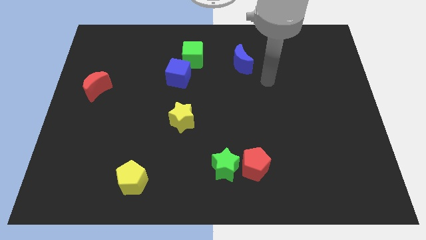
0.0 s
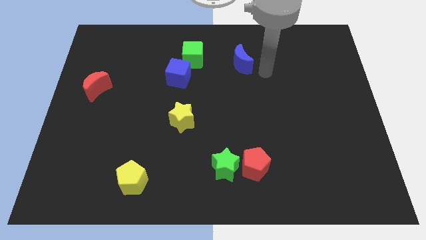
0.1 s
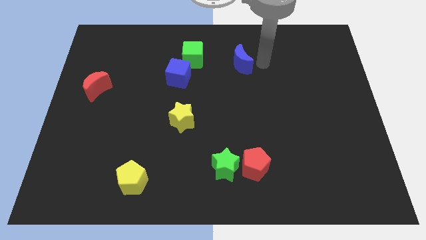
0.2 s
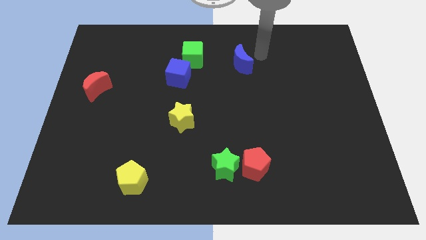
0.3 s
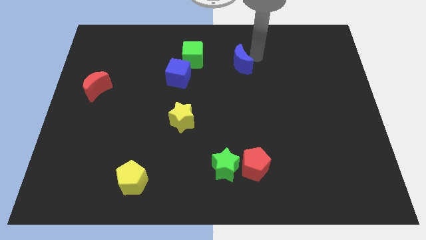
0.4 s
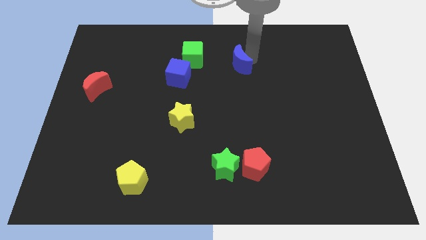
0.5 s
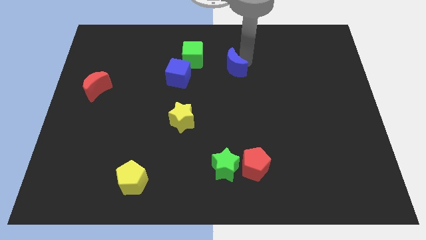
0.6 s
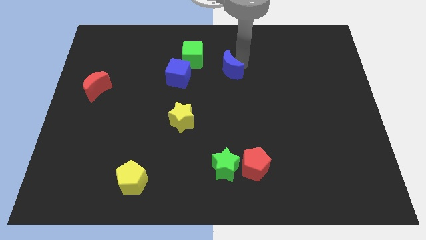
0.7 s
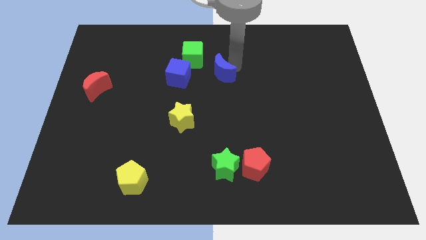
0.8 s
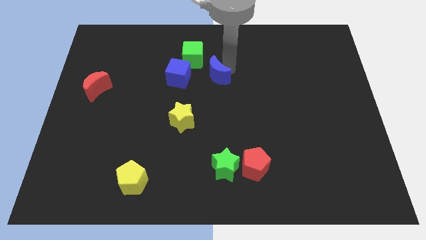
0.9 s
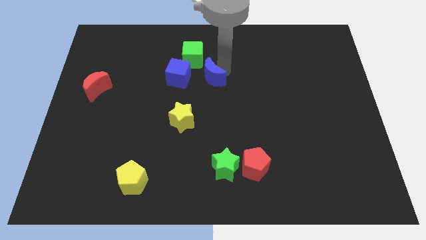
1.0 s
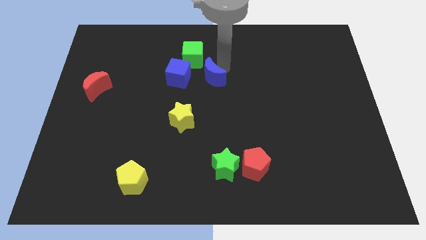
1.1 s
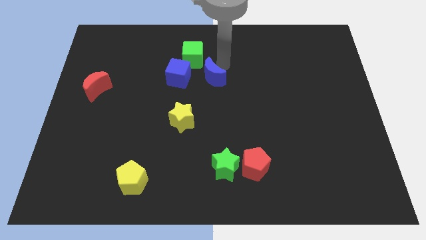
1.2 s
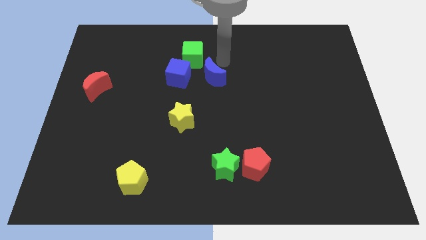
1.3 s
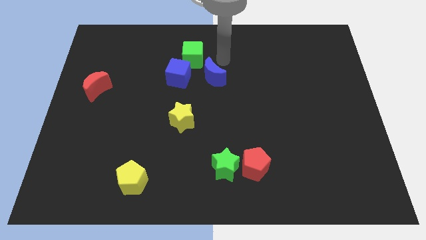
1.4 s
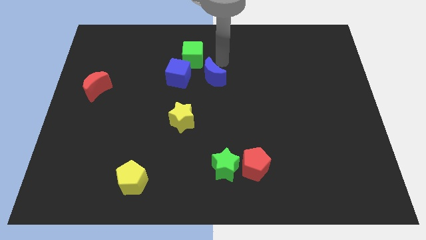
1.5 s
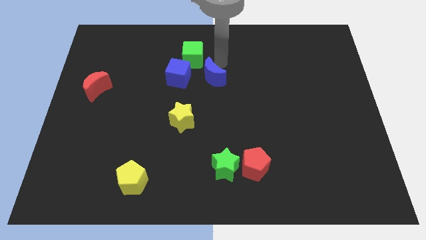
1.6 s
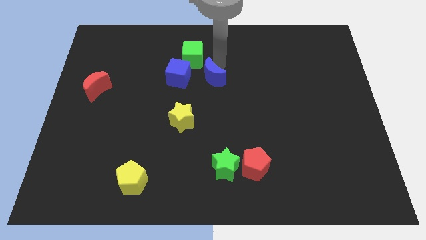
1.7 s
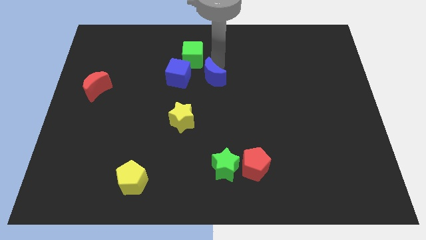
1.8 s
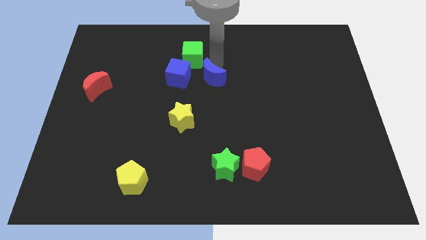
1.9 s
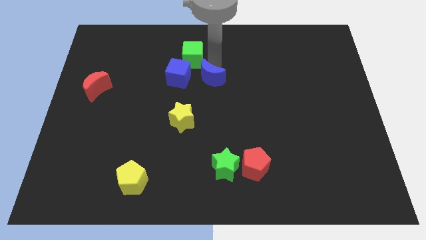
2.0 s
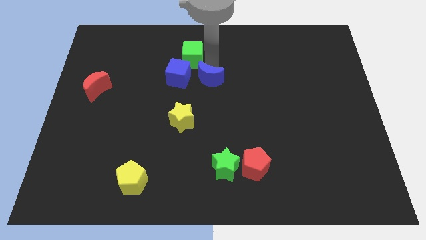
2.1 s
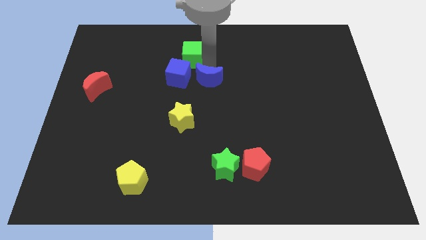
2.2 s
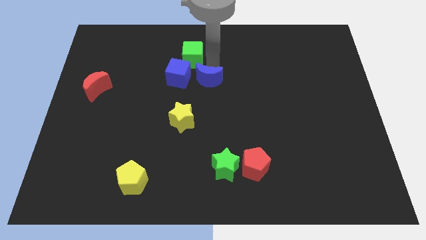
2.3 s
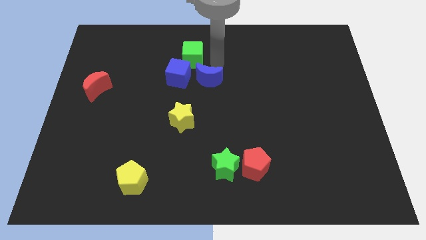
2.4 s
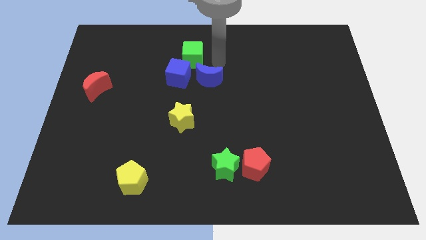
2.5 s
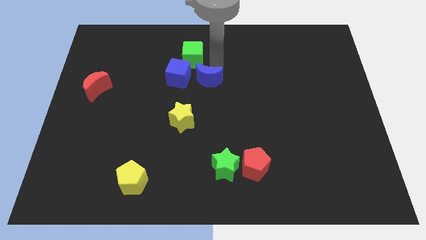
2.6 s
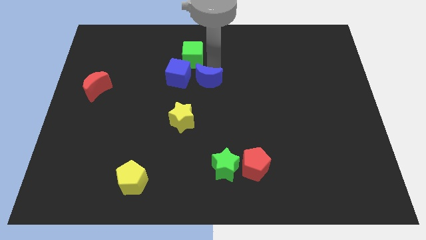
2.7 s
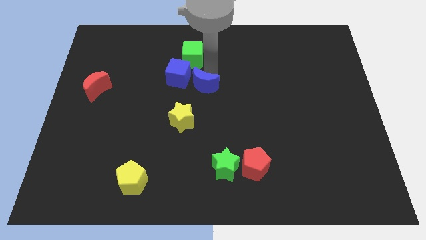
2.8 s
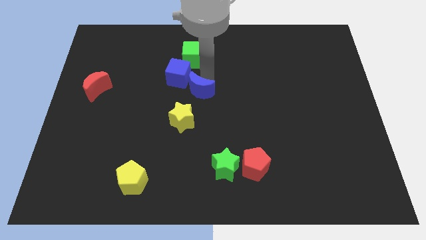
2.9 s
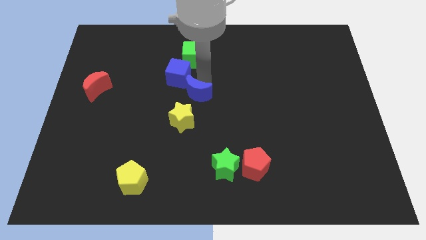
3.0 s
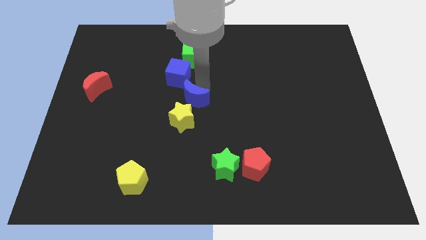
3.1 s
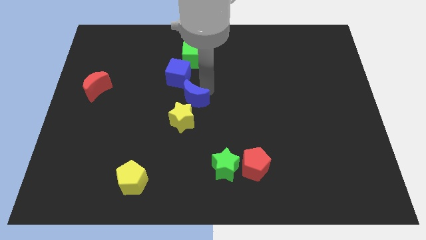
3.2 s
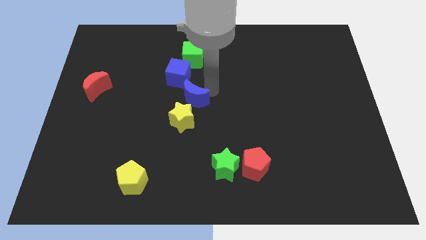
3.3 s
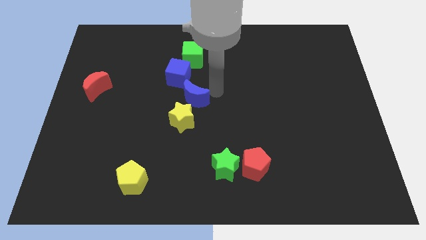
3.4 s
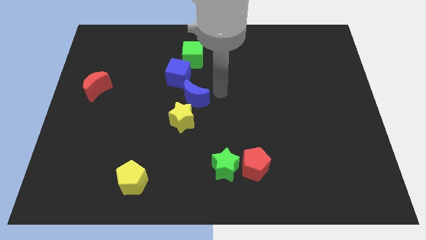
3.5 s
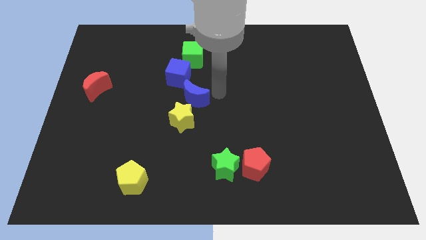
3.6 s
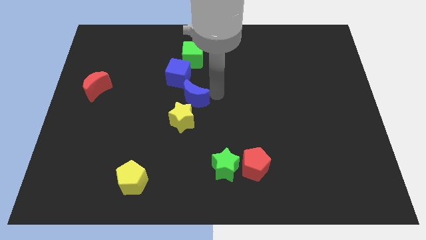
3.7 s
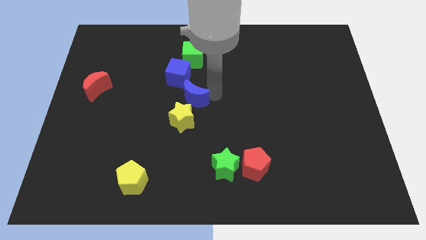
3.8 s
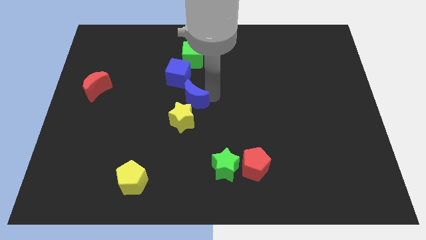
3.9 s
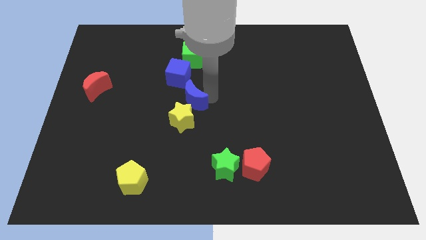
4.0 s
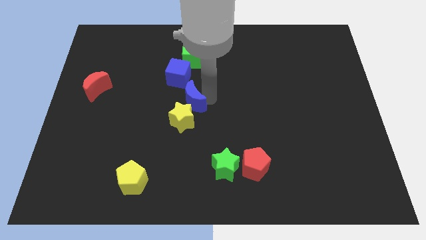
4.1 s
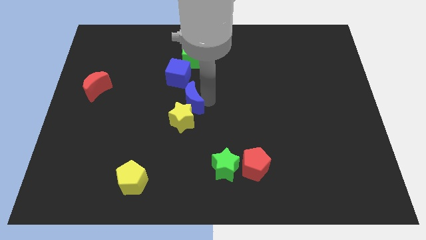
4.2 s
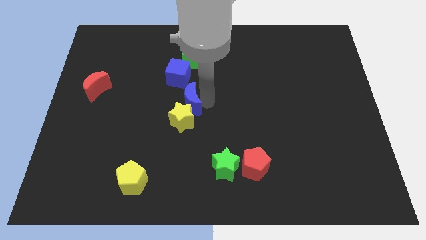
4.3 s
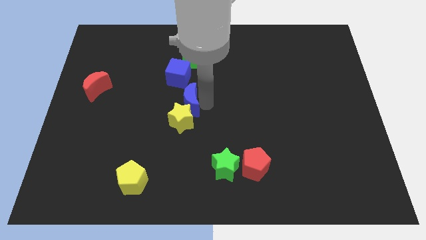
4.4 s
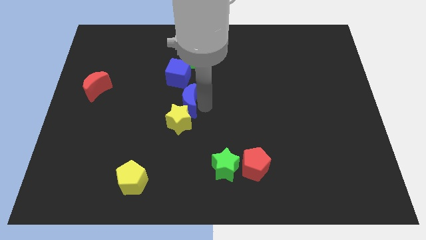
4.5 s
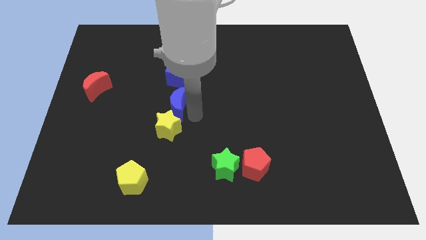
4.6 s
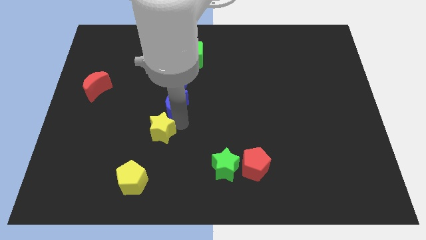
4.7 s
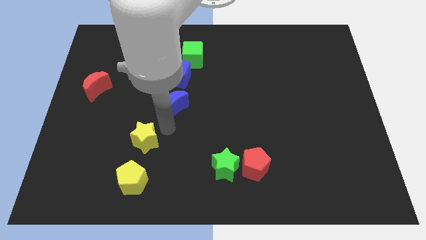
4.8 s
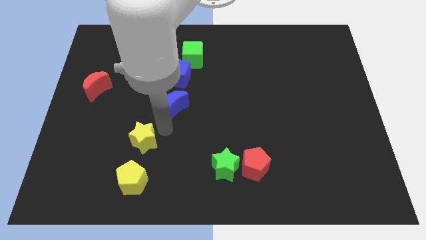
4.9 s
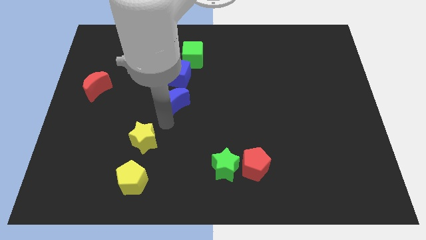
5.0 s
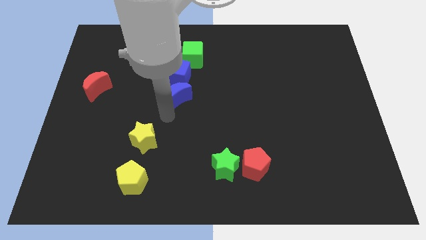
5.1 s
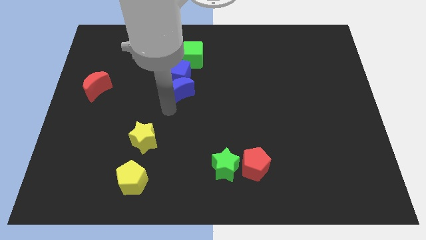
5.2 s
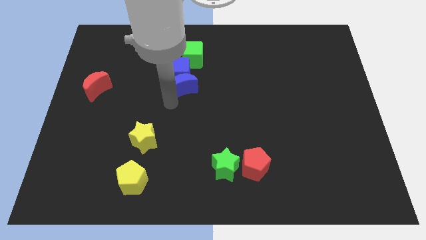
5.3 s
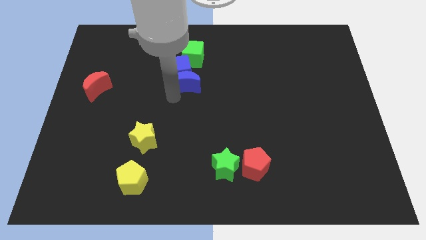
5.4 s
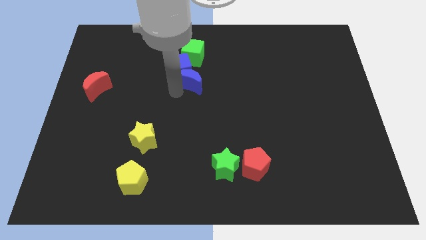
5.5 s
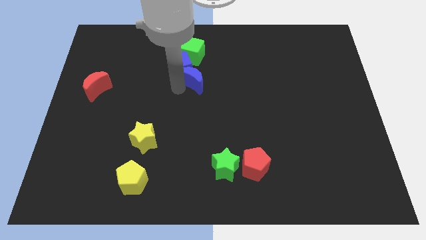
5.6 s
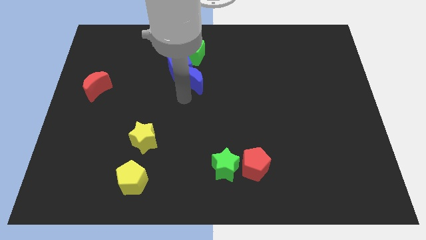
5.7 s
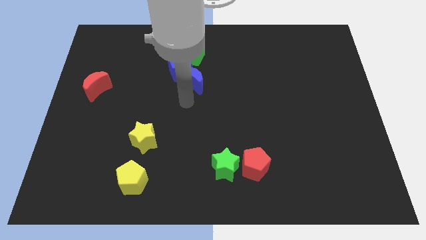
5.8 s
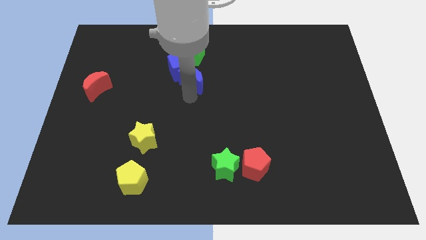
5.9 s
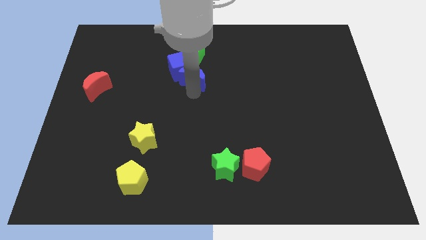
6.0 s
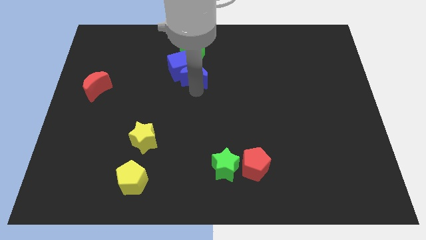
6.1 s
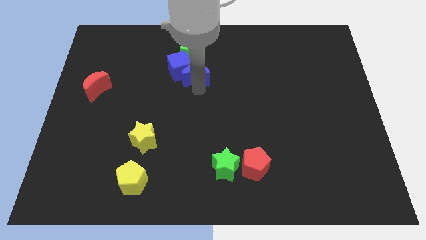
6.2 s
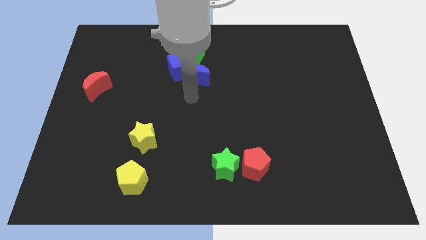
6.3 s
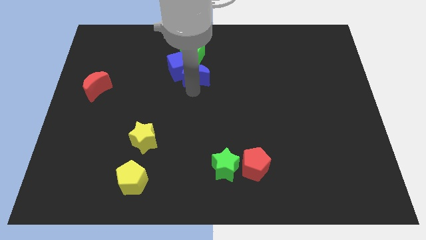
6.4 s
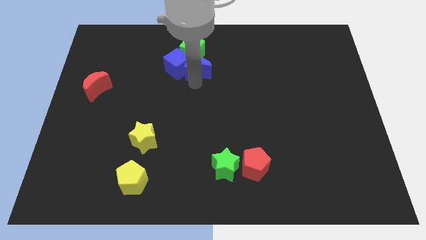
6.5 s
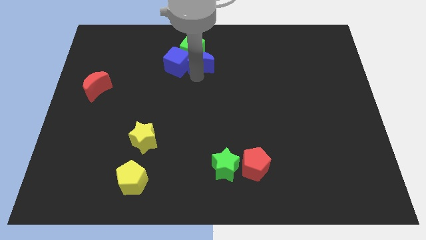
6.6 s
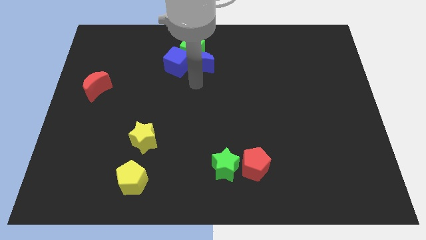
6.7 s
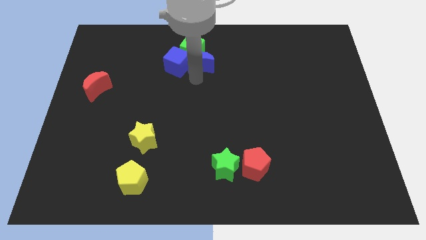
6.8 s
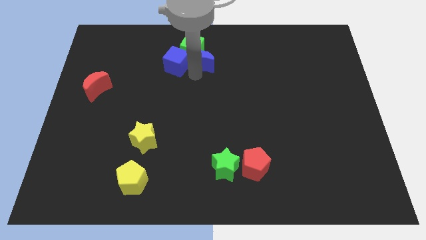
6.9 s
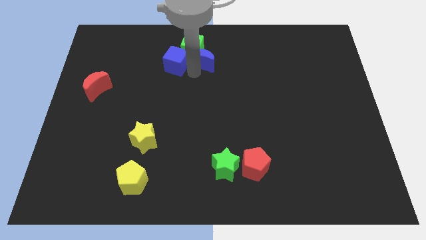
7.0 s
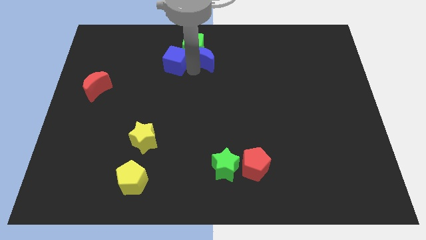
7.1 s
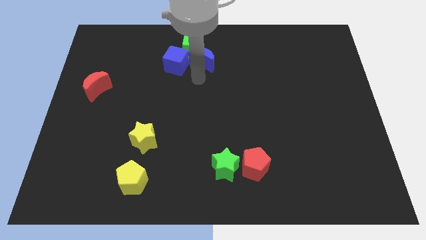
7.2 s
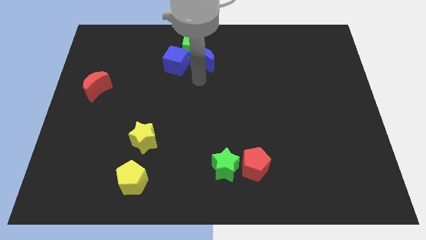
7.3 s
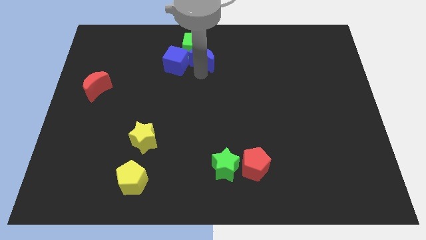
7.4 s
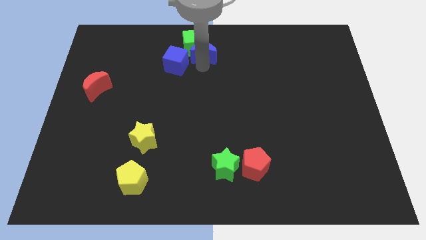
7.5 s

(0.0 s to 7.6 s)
put the blue moon to the top
